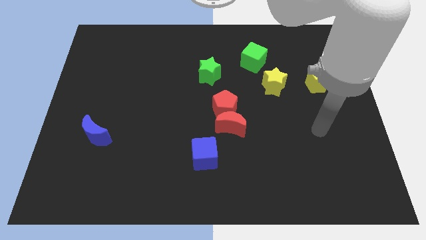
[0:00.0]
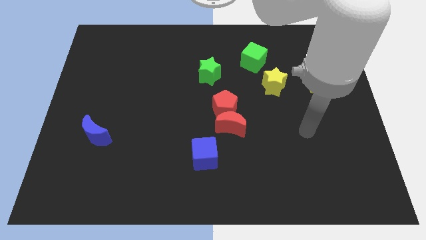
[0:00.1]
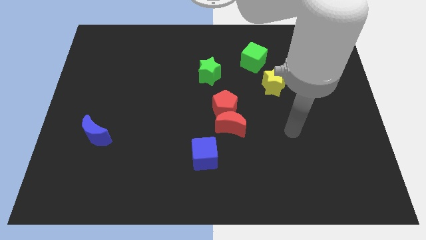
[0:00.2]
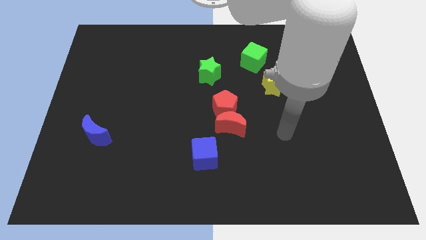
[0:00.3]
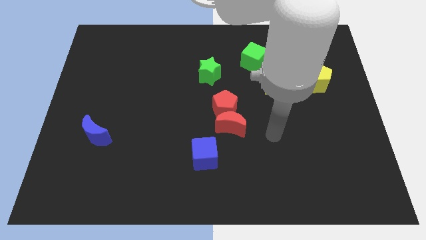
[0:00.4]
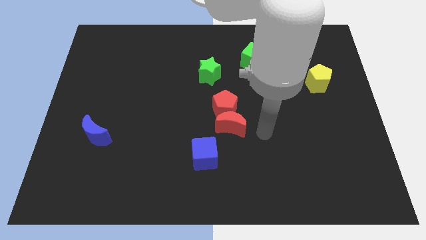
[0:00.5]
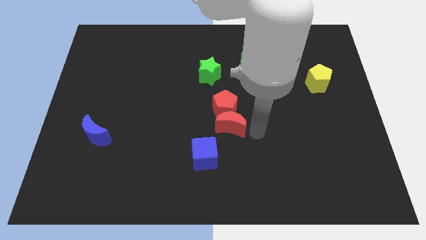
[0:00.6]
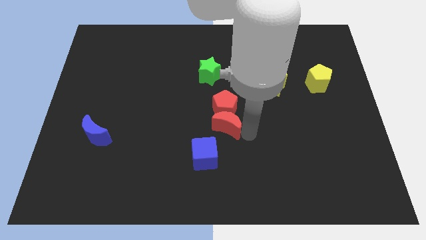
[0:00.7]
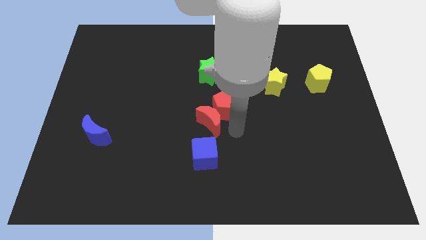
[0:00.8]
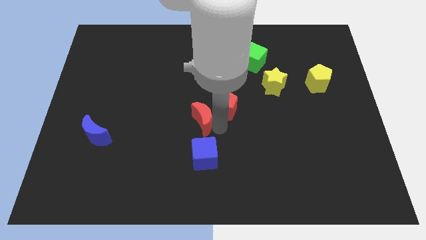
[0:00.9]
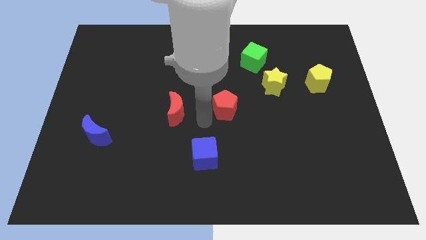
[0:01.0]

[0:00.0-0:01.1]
separate the red pentagon from the red moon

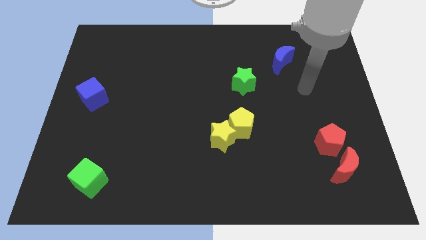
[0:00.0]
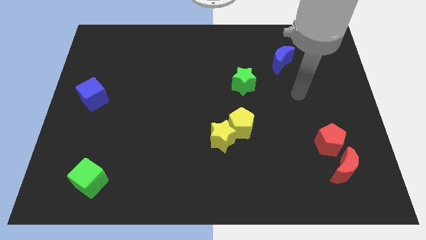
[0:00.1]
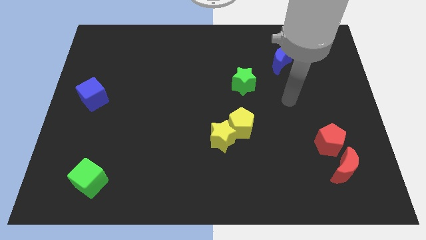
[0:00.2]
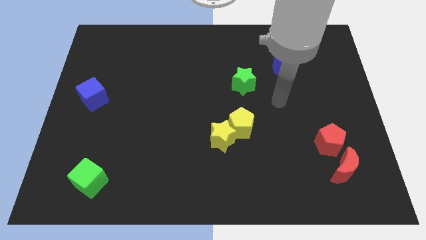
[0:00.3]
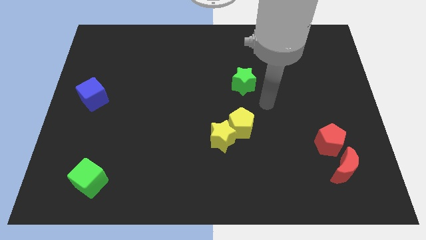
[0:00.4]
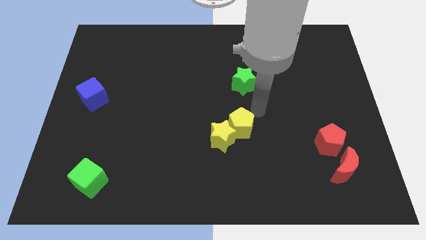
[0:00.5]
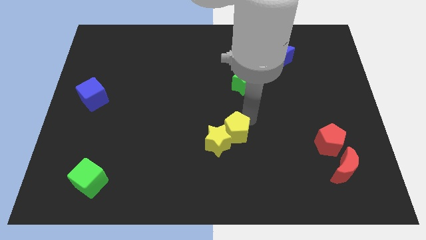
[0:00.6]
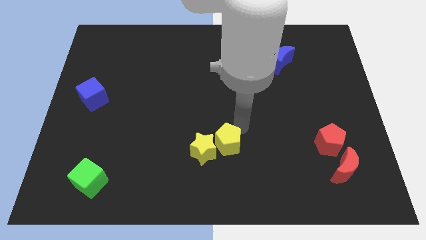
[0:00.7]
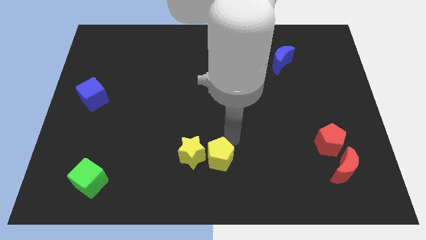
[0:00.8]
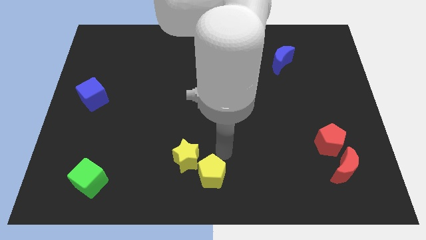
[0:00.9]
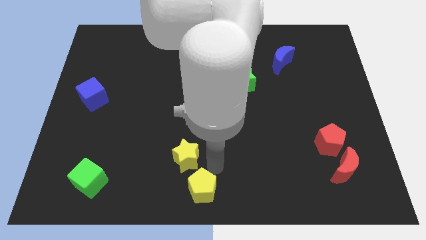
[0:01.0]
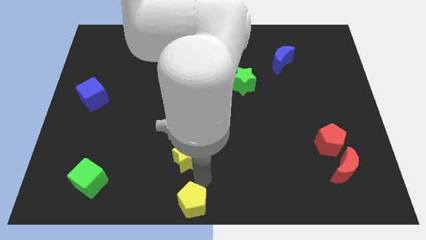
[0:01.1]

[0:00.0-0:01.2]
separate the yellow star from the yellow pentagon

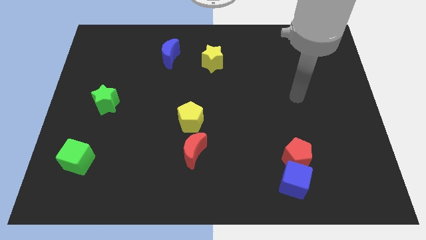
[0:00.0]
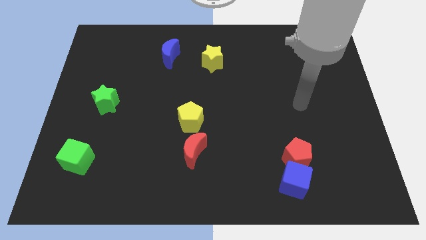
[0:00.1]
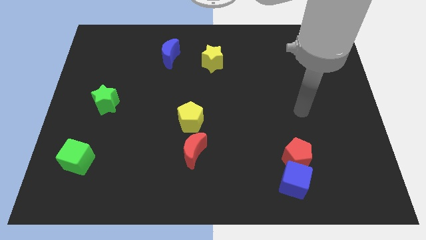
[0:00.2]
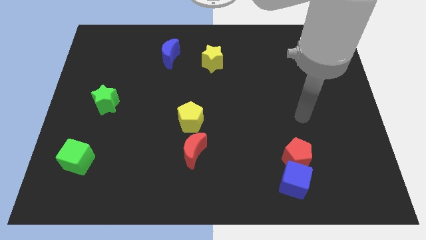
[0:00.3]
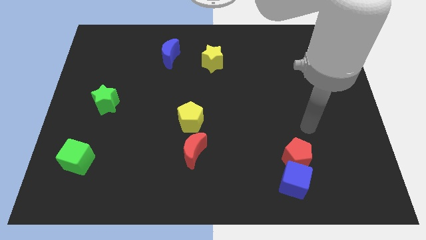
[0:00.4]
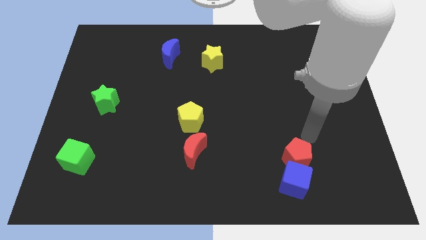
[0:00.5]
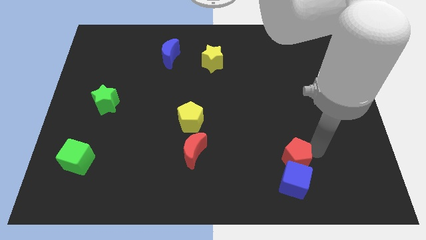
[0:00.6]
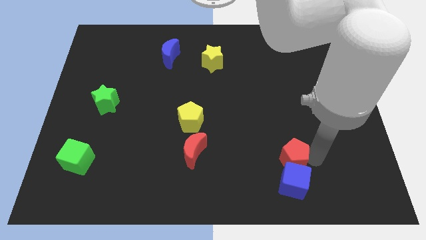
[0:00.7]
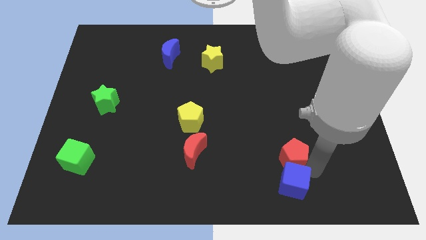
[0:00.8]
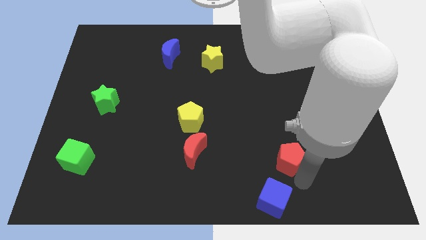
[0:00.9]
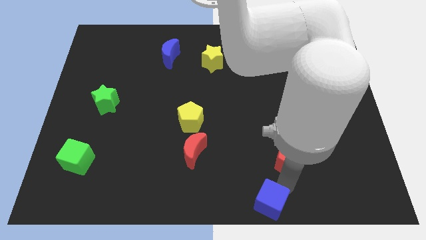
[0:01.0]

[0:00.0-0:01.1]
move the red pentagon away from the blue cube

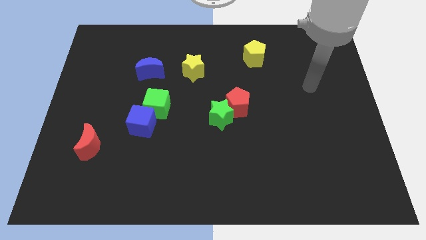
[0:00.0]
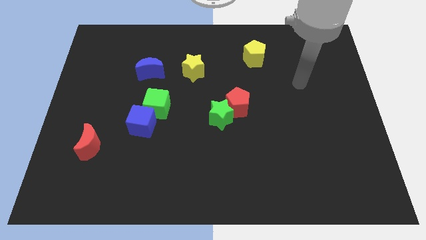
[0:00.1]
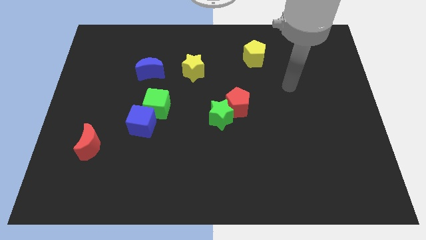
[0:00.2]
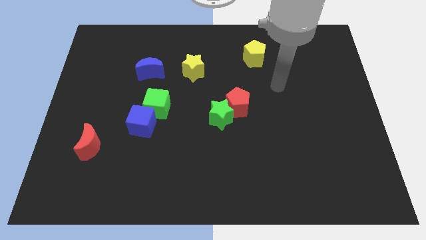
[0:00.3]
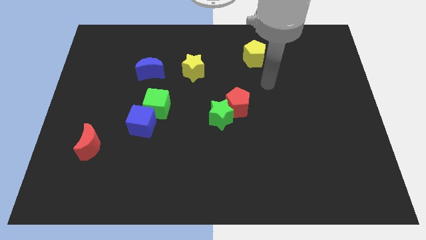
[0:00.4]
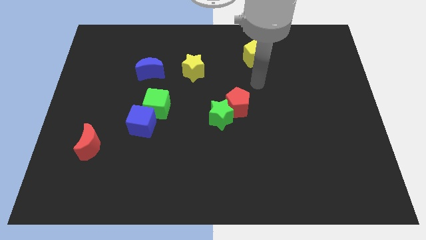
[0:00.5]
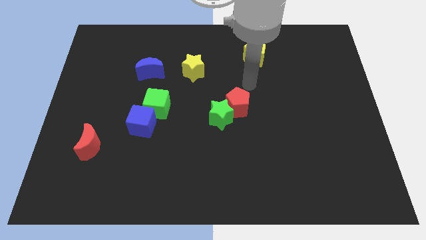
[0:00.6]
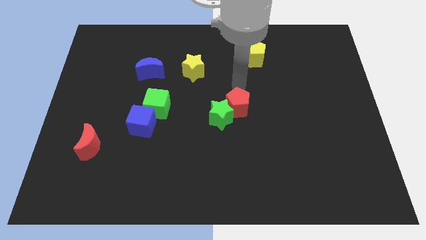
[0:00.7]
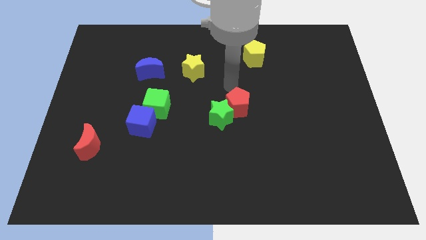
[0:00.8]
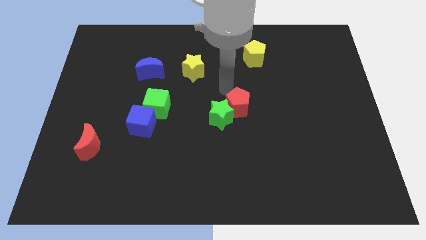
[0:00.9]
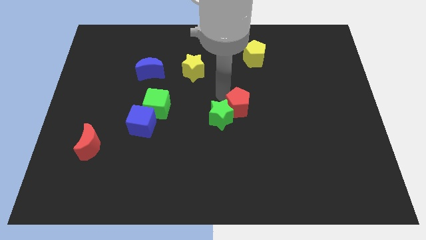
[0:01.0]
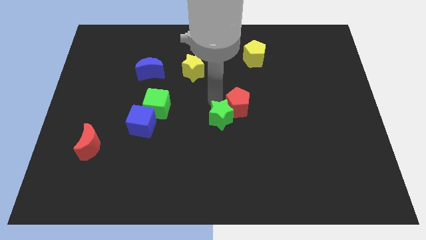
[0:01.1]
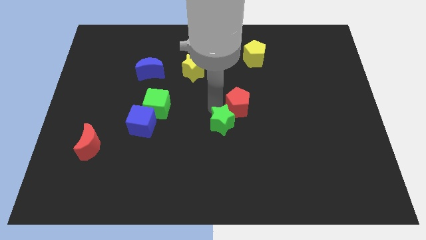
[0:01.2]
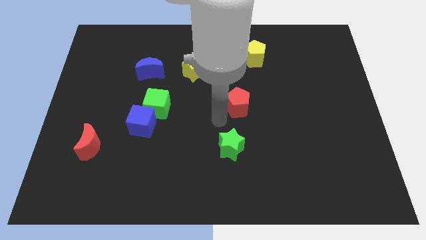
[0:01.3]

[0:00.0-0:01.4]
separate the red pentagon from the green star

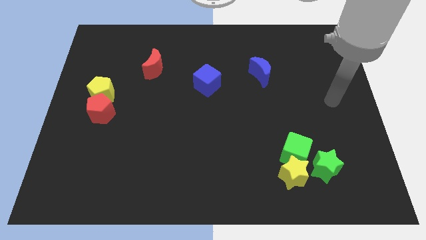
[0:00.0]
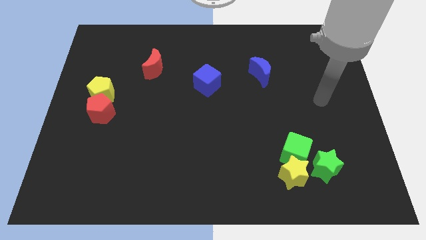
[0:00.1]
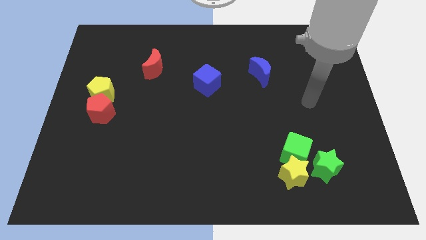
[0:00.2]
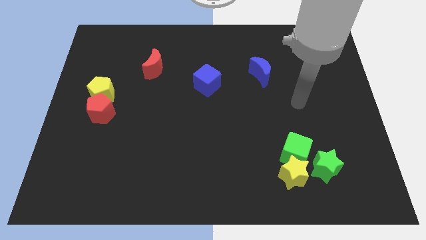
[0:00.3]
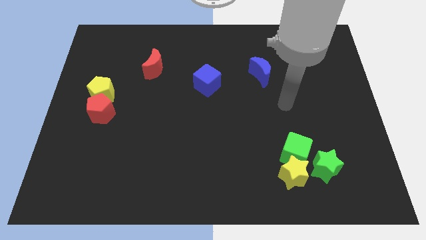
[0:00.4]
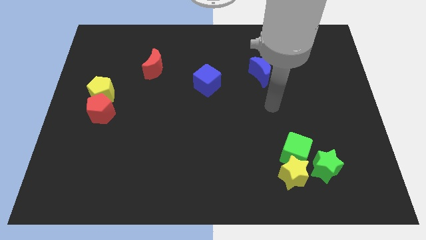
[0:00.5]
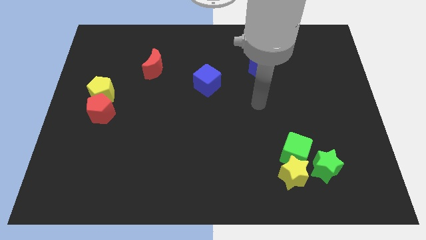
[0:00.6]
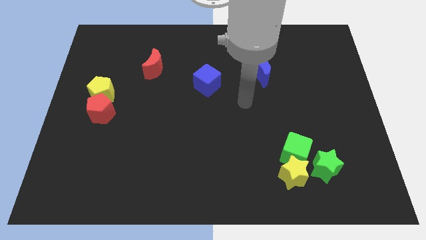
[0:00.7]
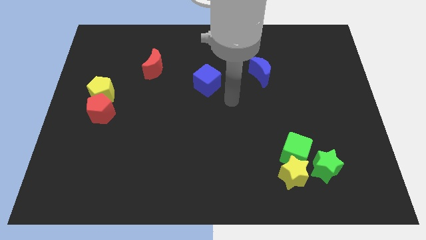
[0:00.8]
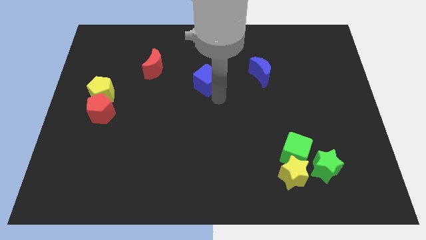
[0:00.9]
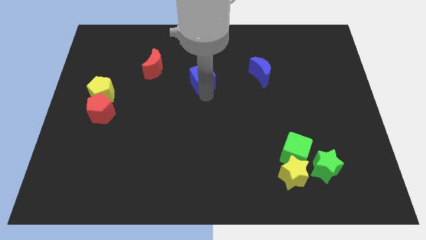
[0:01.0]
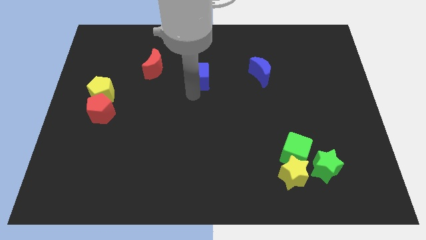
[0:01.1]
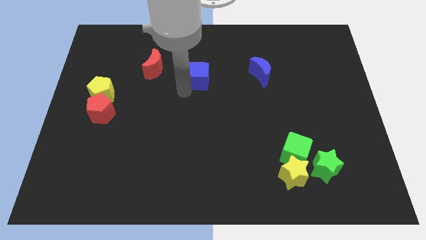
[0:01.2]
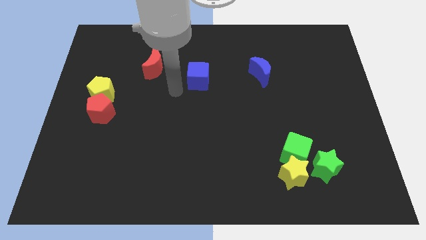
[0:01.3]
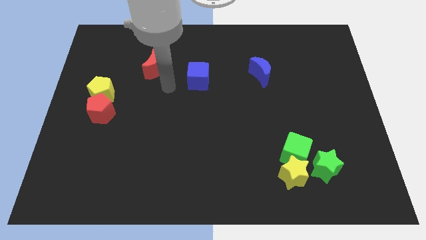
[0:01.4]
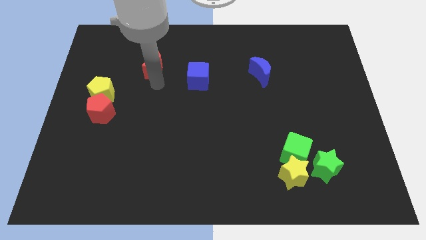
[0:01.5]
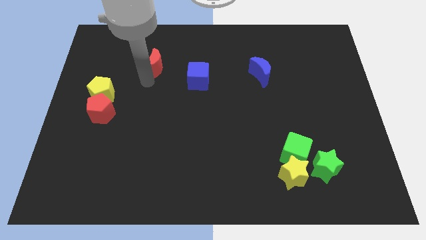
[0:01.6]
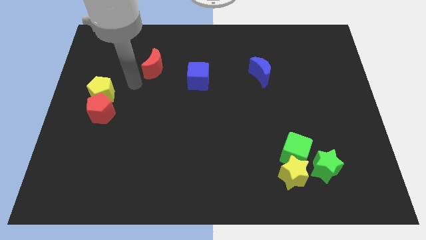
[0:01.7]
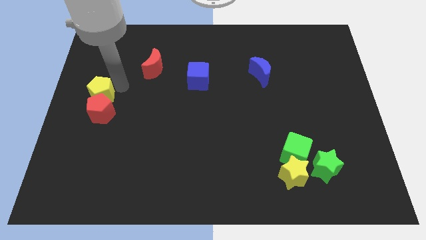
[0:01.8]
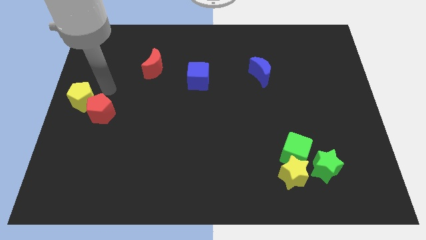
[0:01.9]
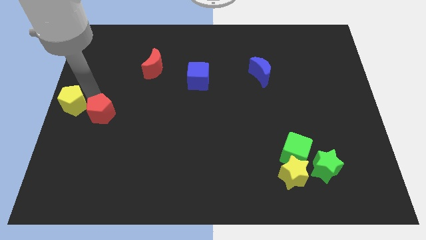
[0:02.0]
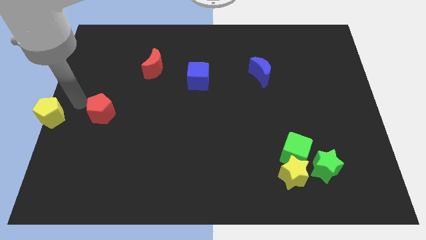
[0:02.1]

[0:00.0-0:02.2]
separate the red pentagon from the yellow pentagon

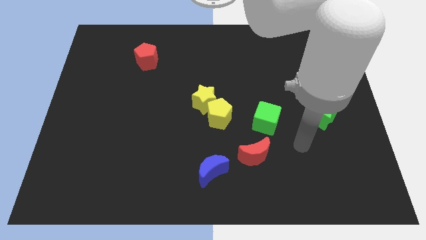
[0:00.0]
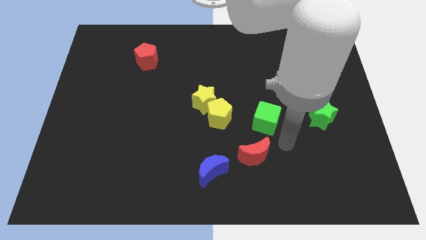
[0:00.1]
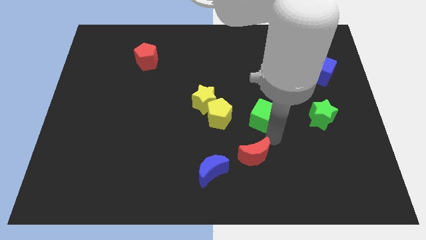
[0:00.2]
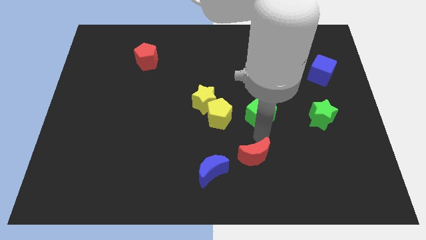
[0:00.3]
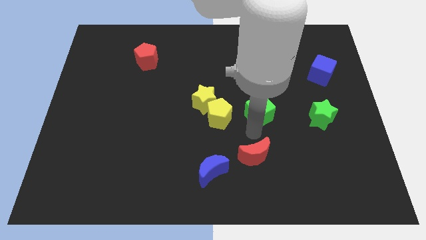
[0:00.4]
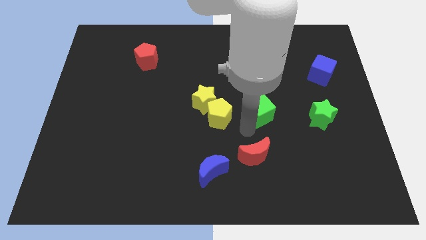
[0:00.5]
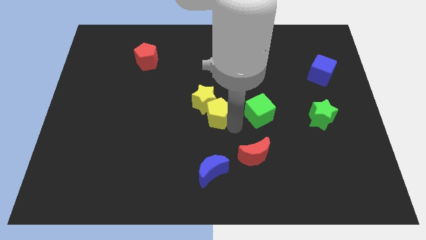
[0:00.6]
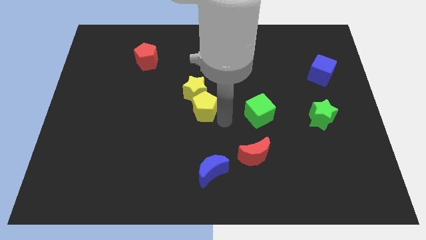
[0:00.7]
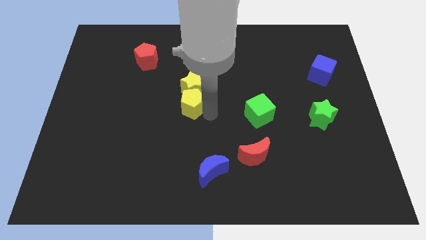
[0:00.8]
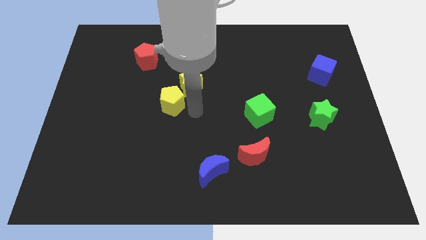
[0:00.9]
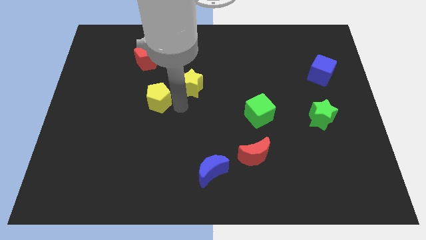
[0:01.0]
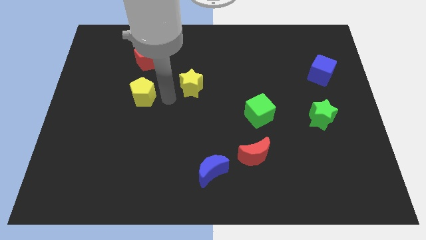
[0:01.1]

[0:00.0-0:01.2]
pull the yellow star apart from the yellow pentagon

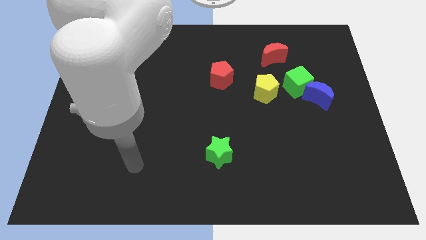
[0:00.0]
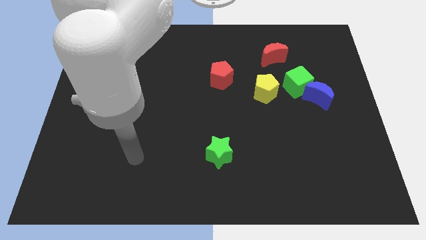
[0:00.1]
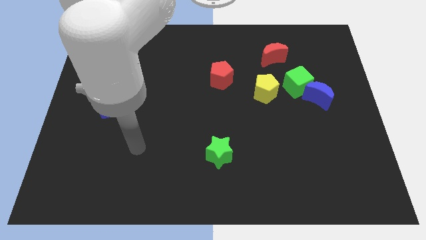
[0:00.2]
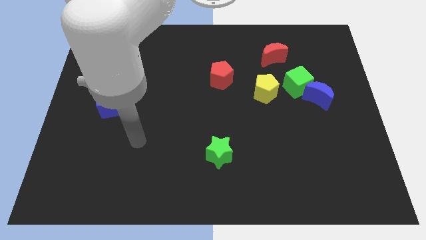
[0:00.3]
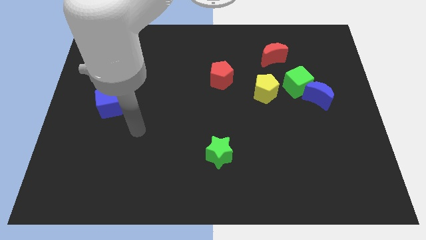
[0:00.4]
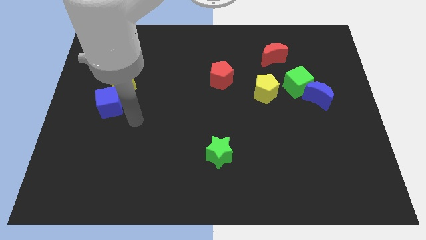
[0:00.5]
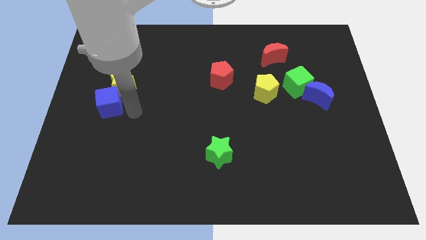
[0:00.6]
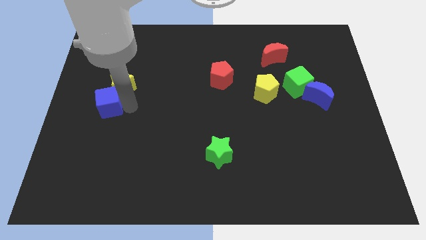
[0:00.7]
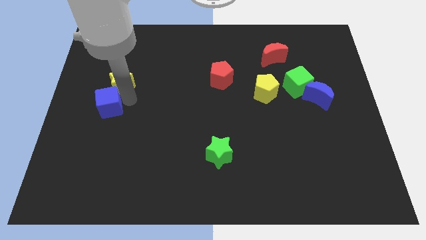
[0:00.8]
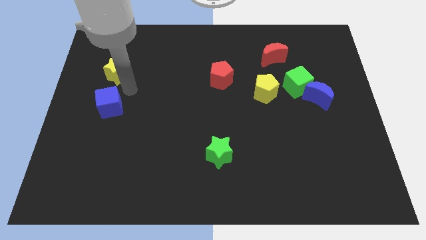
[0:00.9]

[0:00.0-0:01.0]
separate the blue cube from the yellow star
